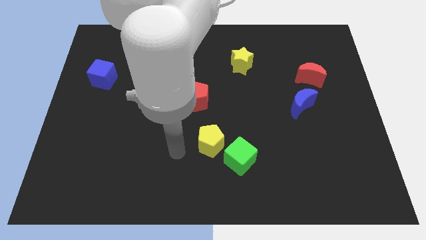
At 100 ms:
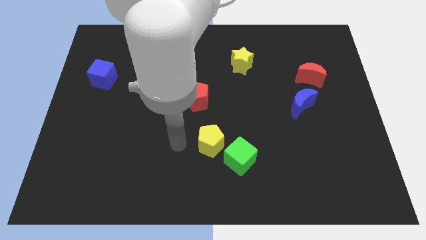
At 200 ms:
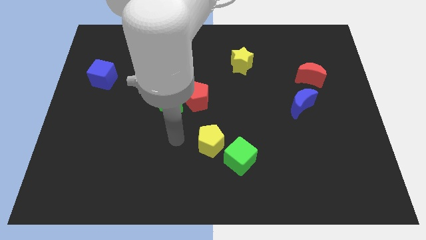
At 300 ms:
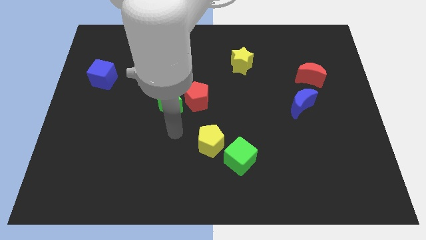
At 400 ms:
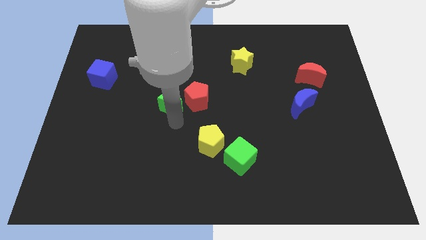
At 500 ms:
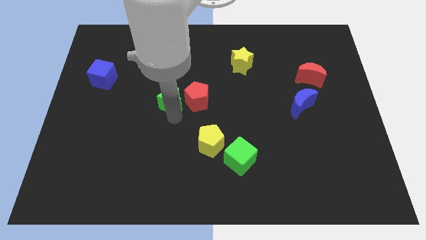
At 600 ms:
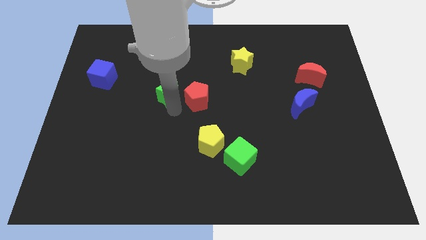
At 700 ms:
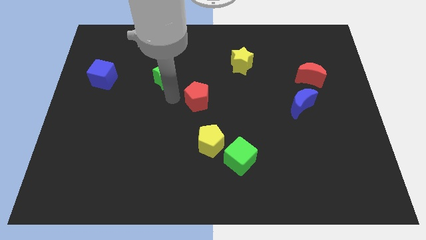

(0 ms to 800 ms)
pull the red pentagon apart from the green star

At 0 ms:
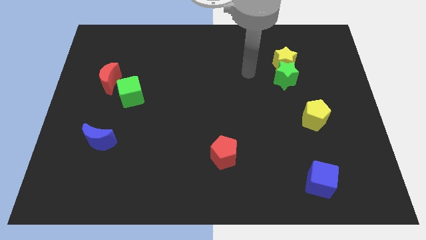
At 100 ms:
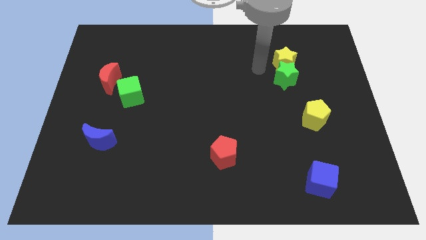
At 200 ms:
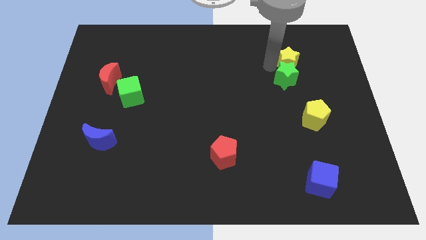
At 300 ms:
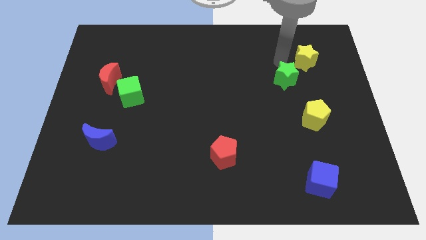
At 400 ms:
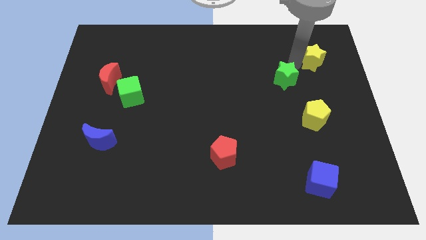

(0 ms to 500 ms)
pull the green star apart from the yellow star

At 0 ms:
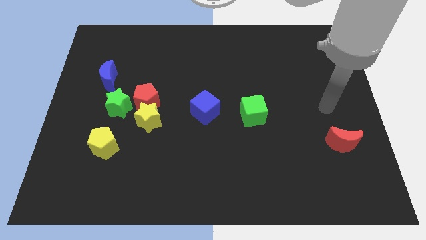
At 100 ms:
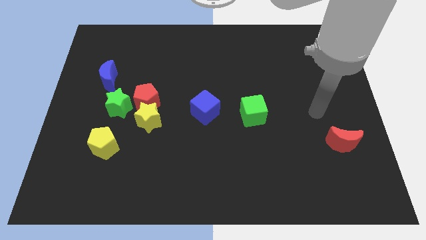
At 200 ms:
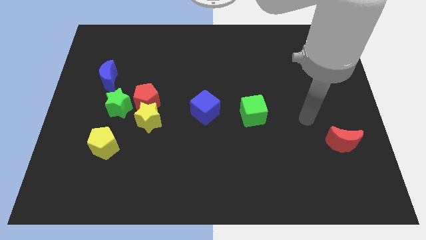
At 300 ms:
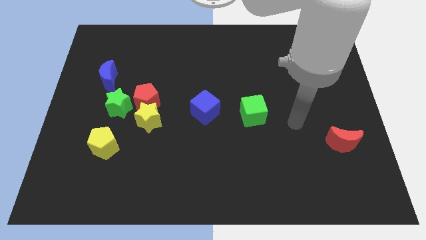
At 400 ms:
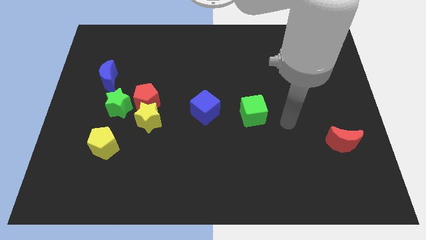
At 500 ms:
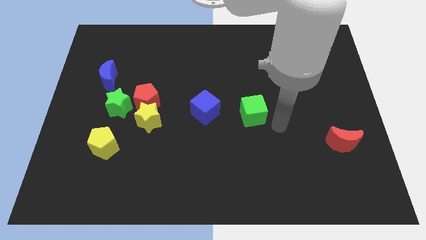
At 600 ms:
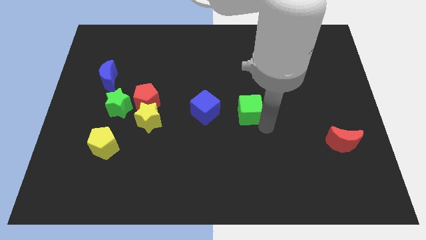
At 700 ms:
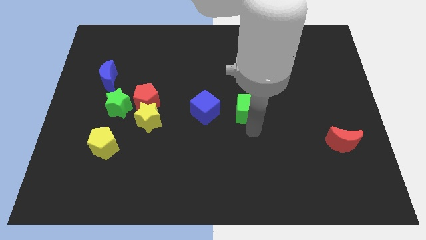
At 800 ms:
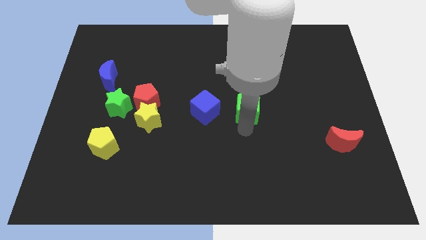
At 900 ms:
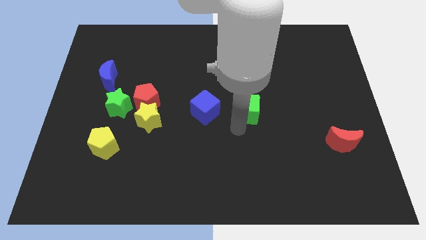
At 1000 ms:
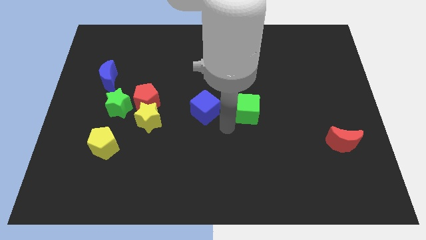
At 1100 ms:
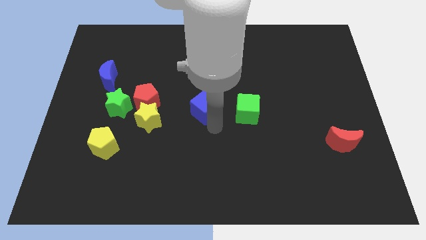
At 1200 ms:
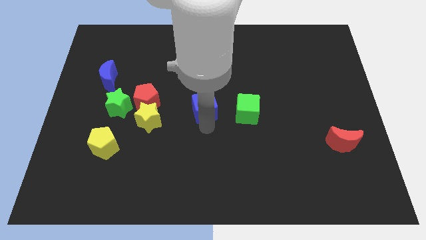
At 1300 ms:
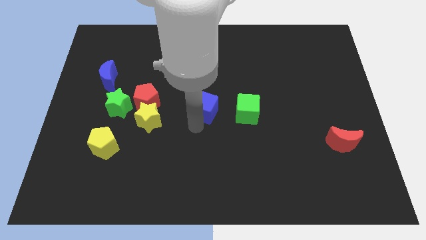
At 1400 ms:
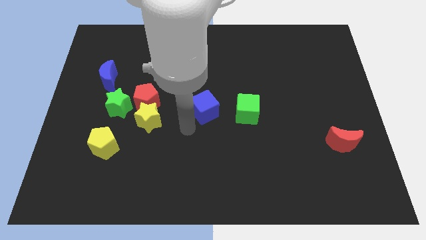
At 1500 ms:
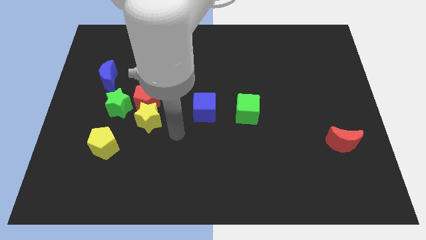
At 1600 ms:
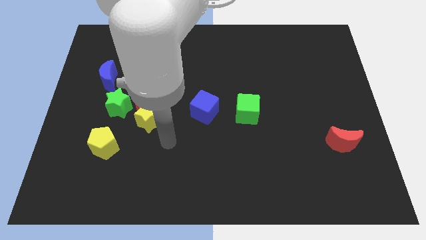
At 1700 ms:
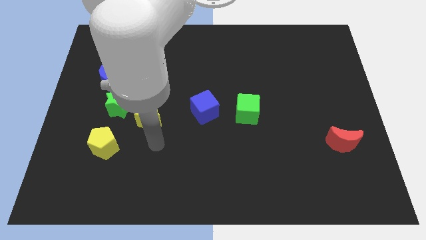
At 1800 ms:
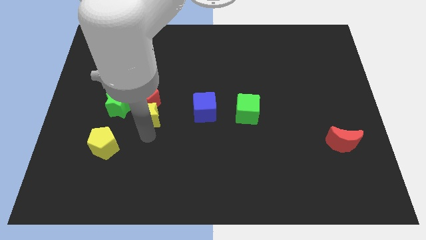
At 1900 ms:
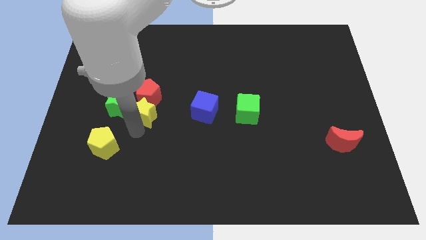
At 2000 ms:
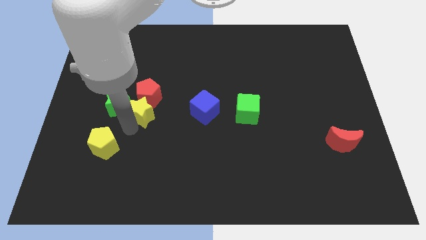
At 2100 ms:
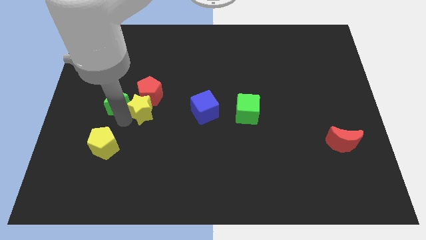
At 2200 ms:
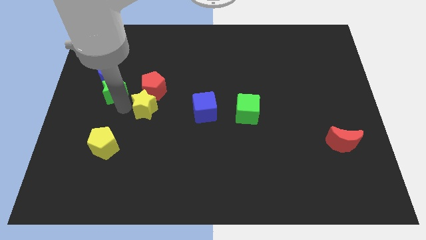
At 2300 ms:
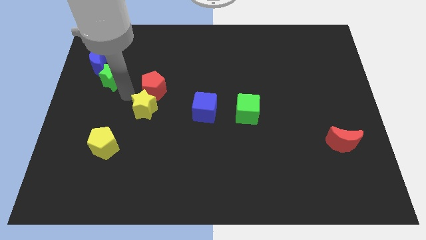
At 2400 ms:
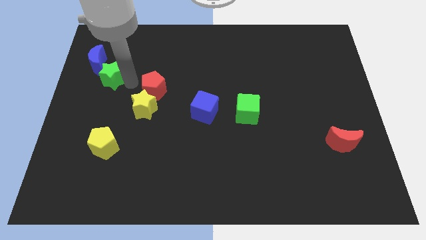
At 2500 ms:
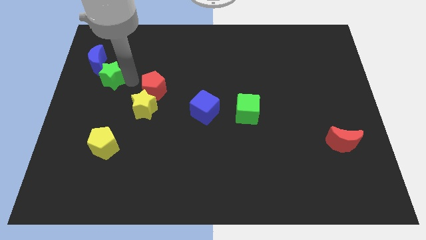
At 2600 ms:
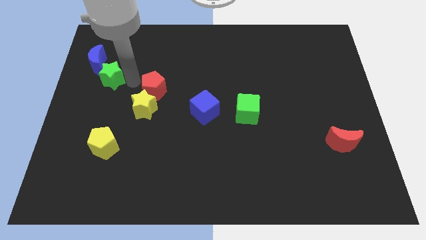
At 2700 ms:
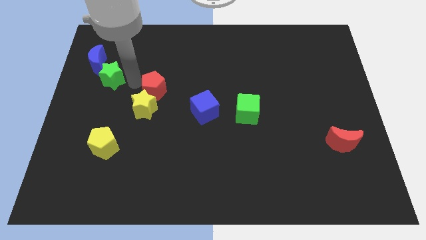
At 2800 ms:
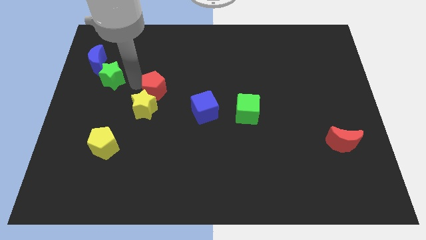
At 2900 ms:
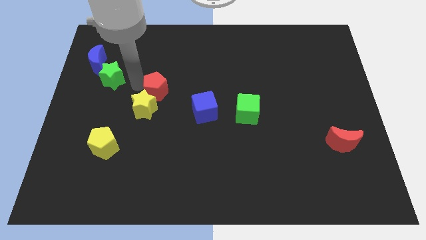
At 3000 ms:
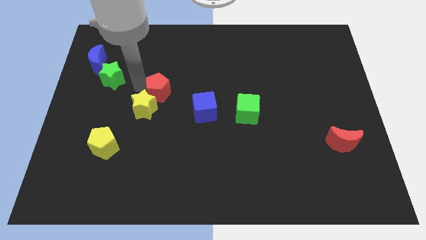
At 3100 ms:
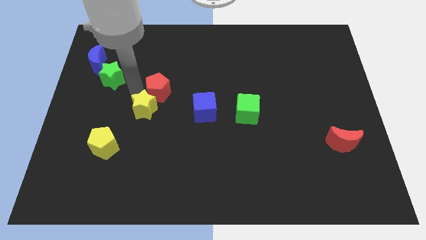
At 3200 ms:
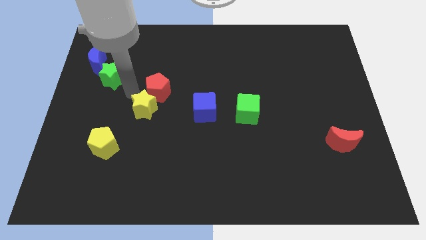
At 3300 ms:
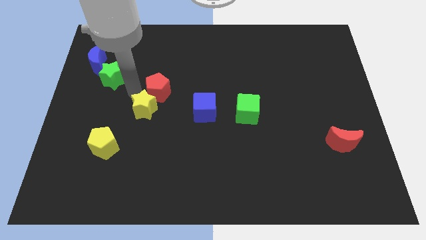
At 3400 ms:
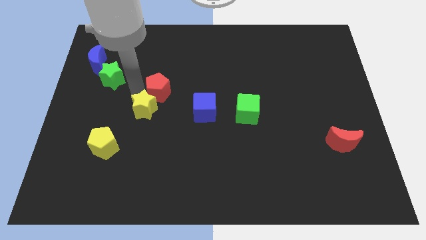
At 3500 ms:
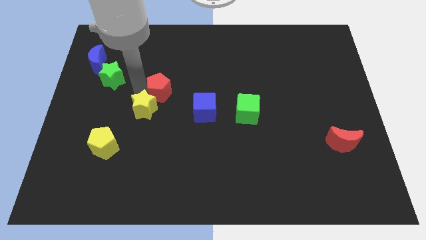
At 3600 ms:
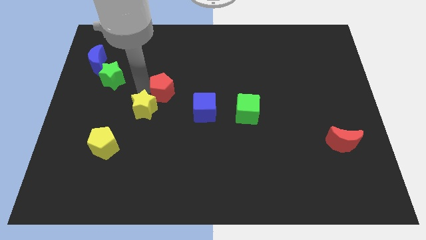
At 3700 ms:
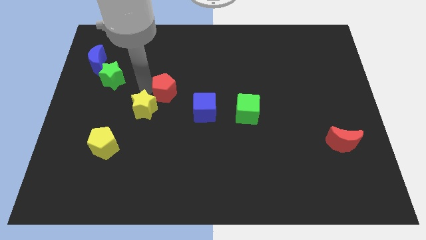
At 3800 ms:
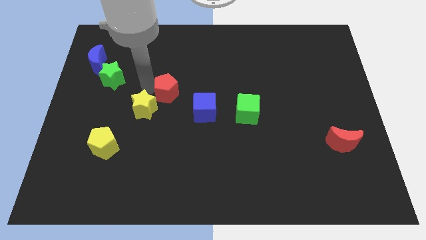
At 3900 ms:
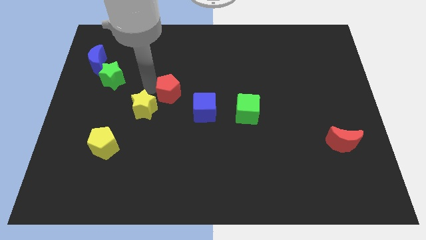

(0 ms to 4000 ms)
separate the red pentagon from the yellow star and green star

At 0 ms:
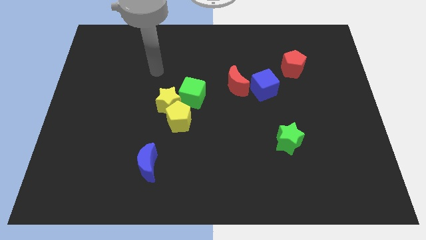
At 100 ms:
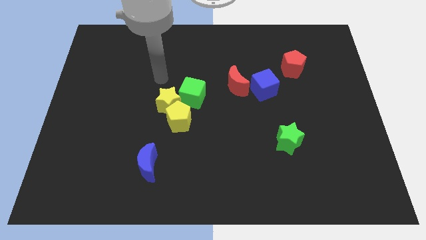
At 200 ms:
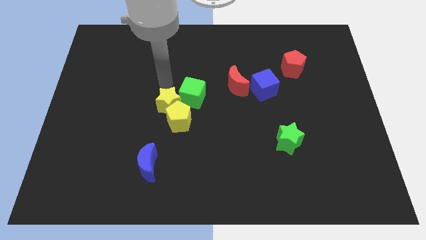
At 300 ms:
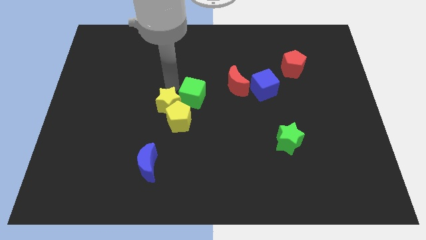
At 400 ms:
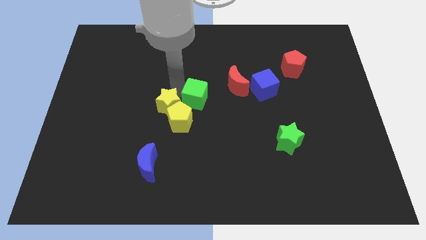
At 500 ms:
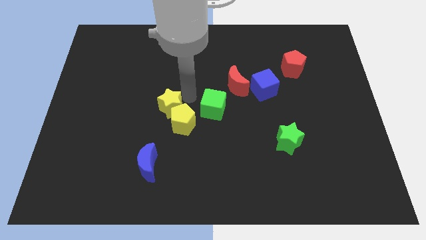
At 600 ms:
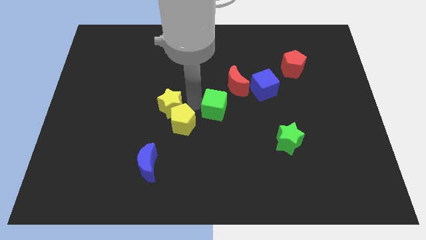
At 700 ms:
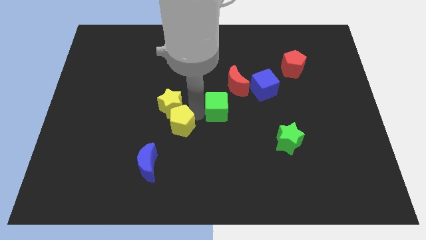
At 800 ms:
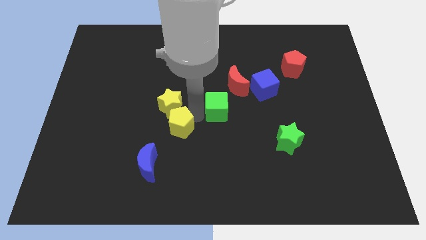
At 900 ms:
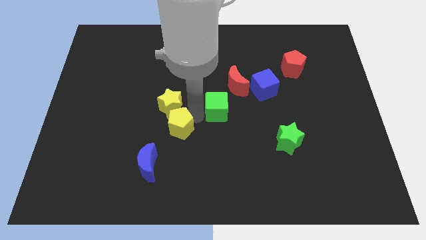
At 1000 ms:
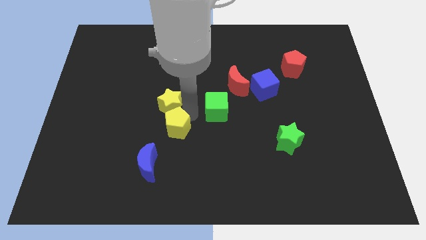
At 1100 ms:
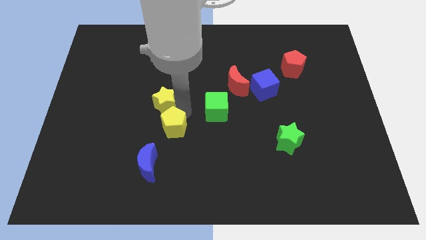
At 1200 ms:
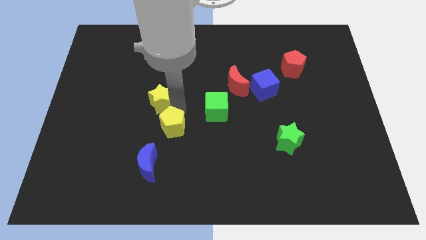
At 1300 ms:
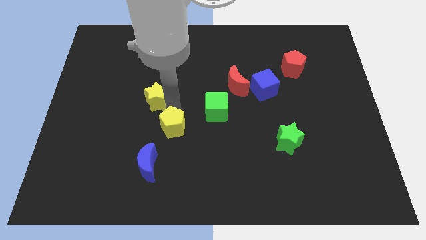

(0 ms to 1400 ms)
pull the yellow star apart from the yellow pentagon and green cube

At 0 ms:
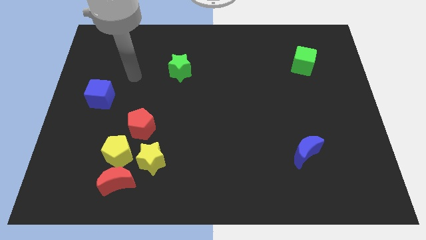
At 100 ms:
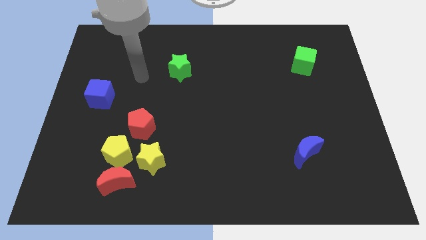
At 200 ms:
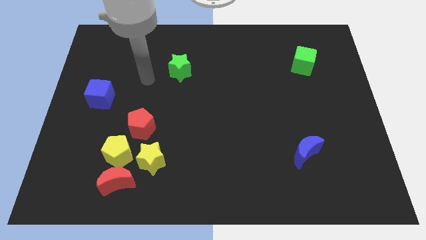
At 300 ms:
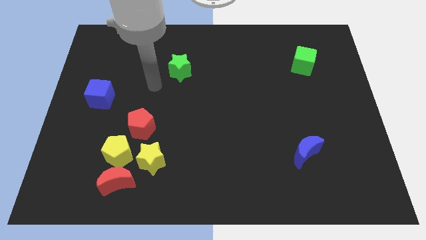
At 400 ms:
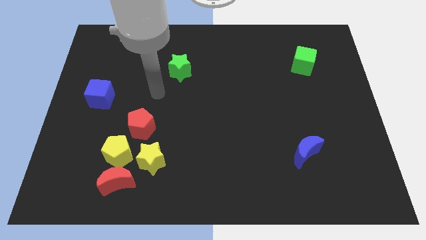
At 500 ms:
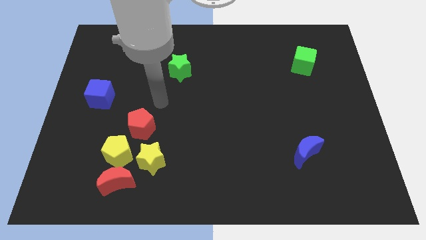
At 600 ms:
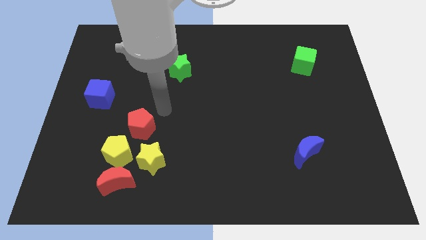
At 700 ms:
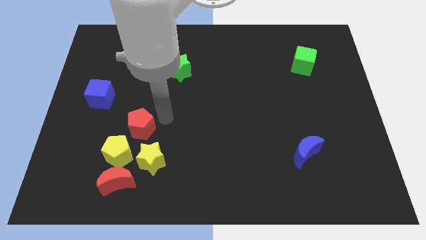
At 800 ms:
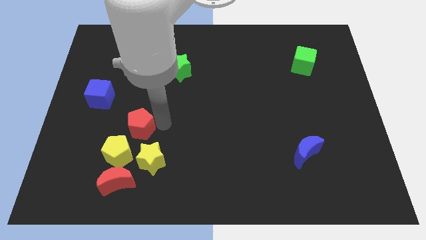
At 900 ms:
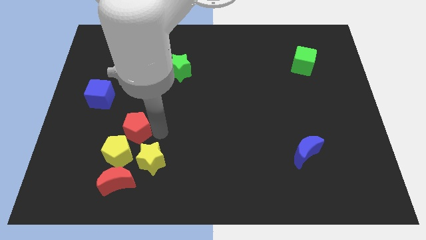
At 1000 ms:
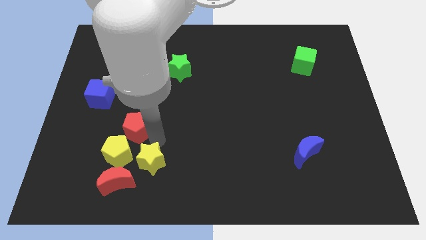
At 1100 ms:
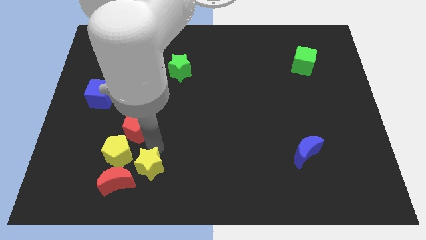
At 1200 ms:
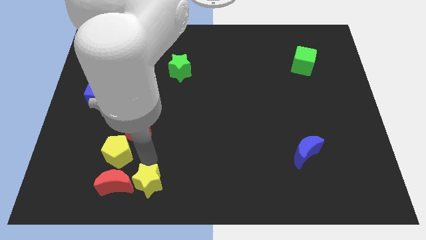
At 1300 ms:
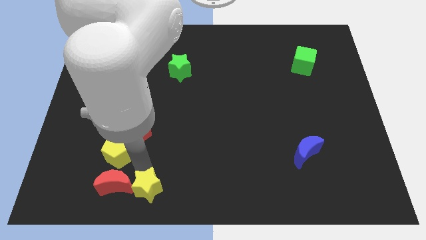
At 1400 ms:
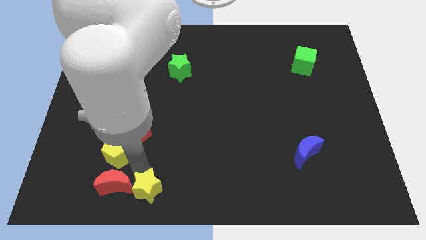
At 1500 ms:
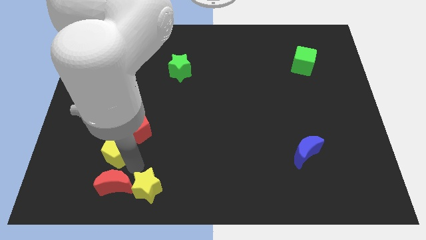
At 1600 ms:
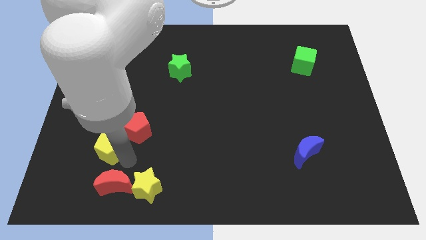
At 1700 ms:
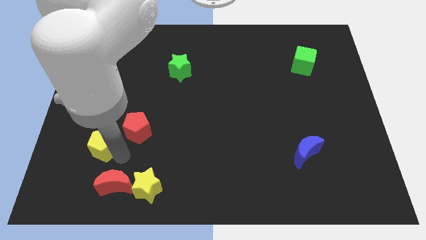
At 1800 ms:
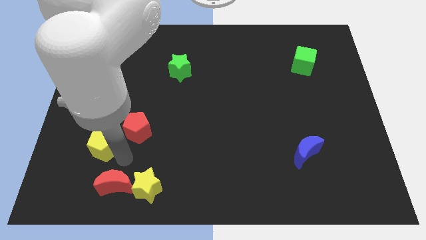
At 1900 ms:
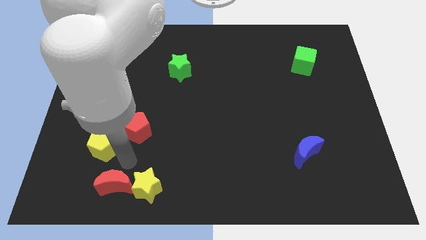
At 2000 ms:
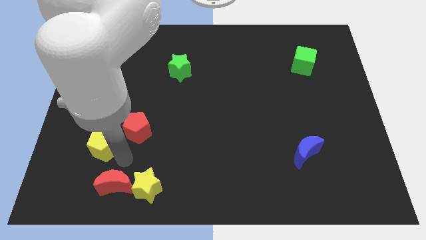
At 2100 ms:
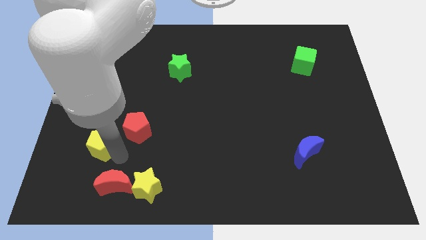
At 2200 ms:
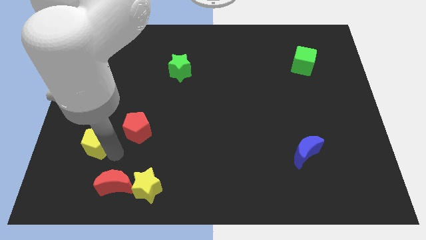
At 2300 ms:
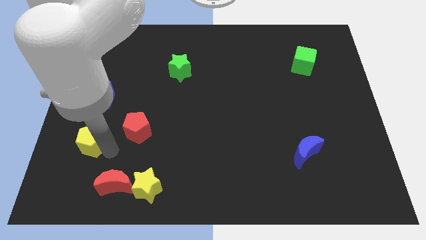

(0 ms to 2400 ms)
separate the yellow pentagon from the red moon, yellow star, and red pentagon

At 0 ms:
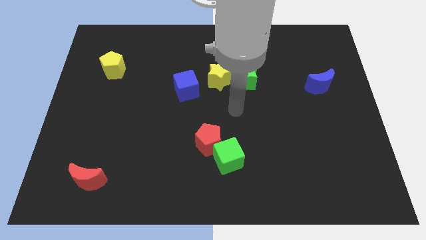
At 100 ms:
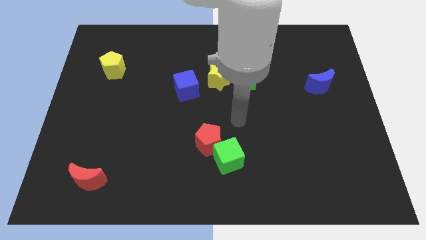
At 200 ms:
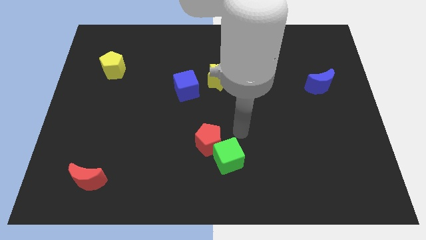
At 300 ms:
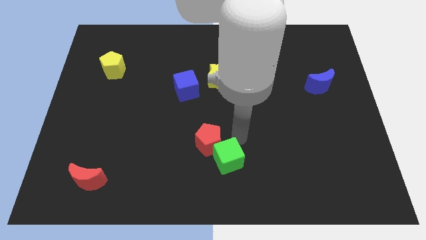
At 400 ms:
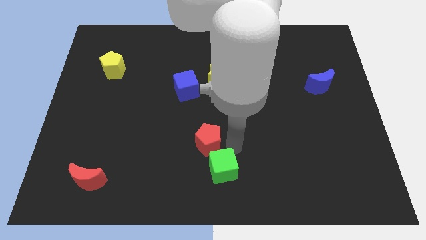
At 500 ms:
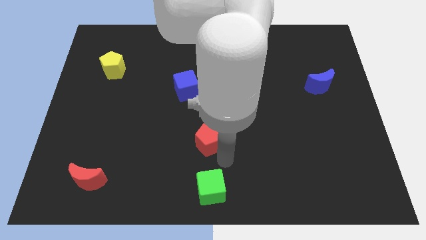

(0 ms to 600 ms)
pull the red pentagon apart from the green cube
